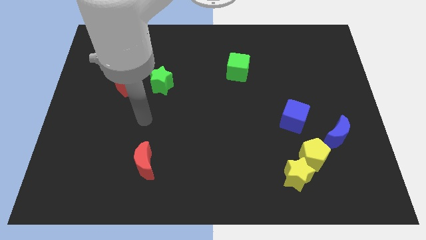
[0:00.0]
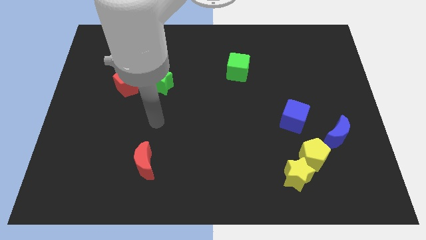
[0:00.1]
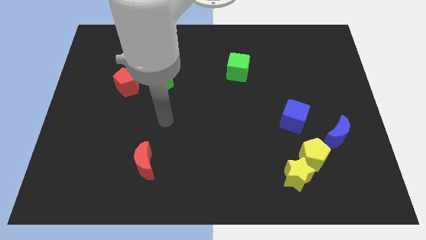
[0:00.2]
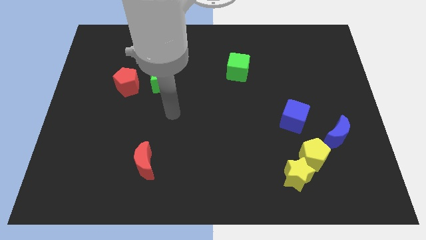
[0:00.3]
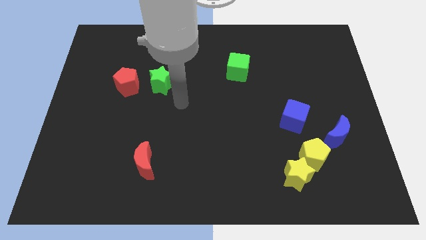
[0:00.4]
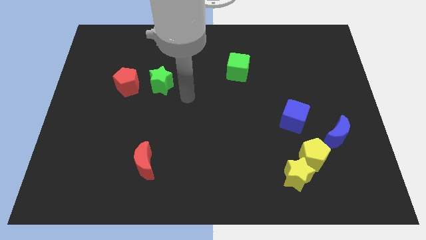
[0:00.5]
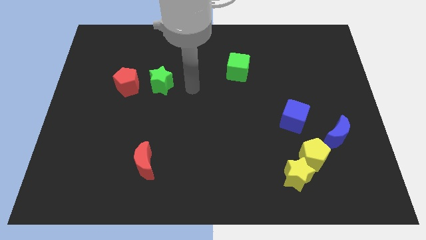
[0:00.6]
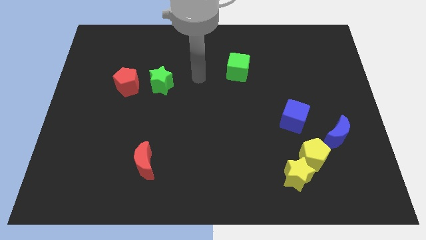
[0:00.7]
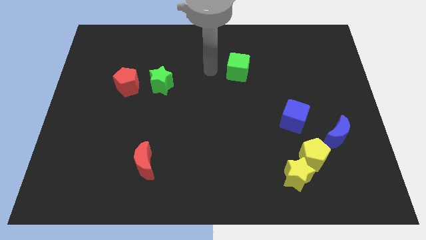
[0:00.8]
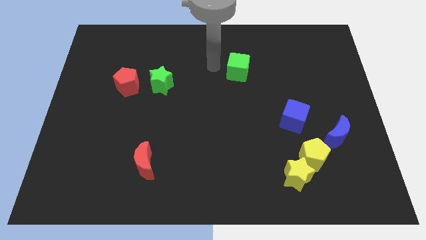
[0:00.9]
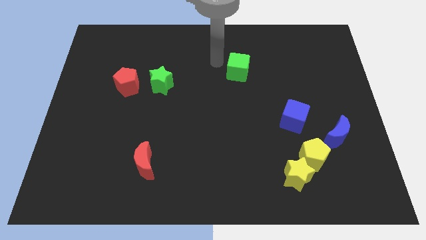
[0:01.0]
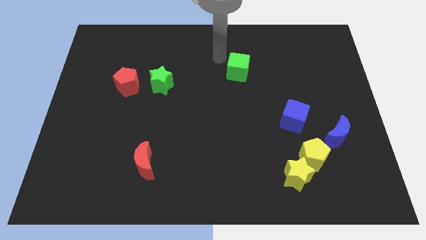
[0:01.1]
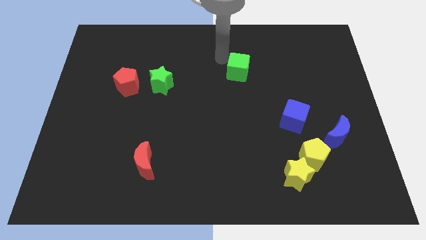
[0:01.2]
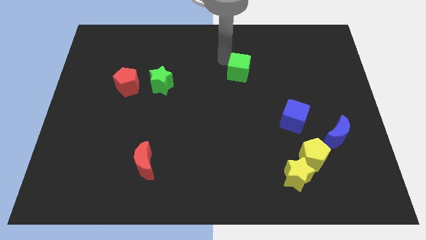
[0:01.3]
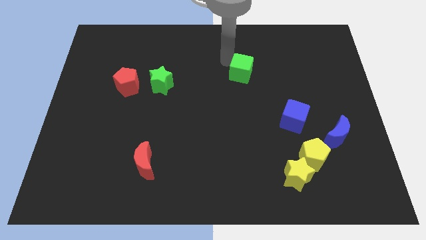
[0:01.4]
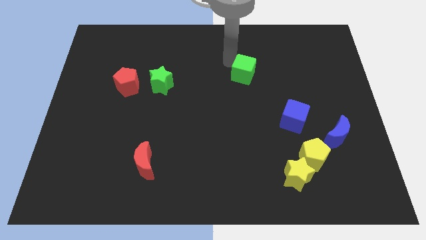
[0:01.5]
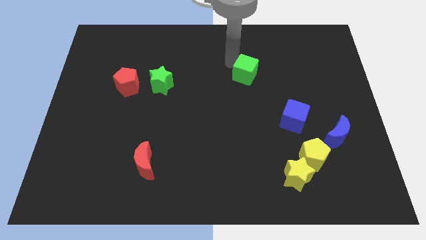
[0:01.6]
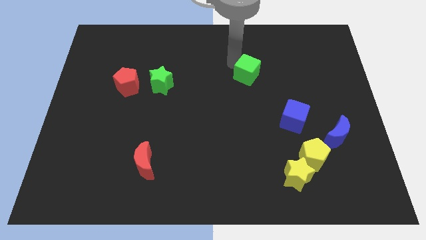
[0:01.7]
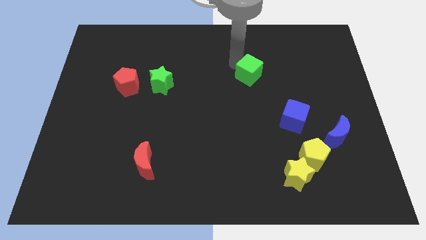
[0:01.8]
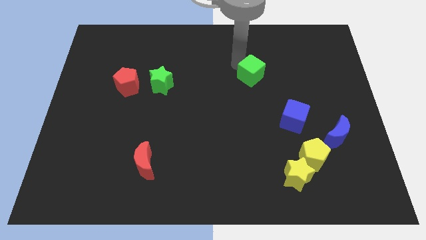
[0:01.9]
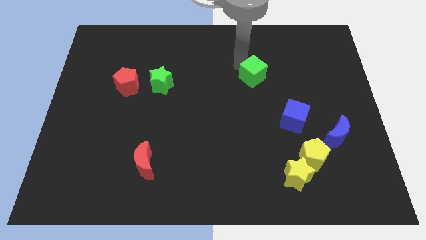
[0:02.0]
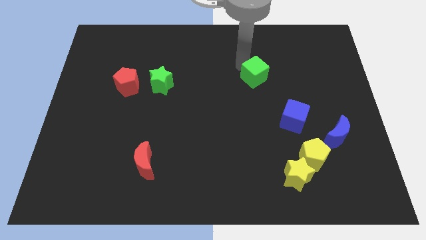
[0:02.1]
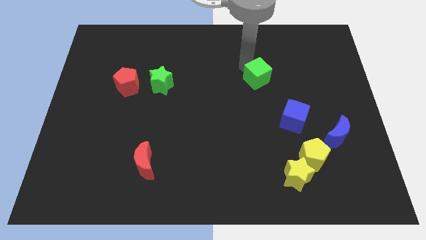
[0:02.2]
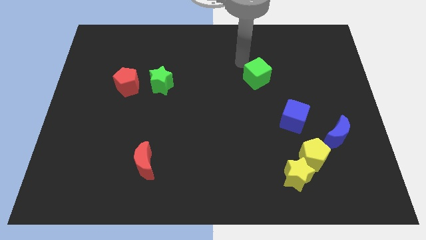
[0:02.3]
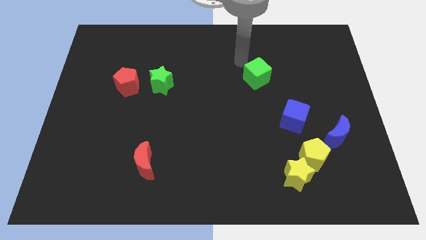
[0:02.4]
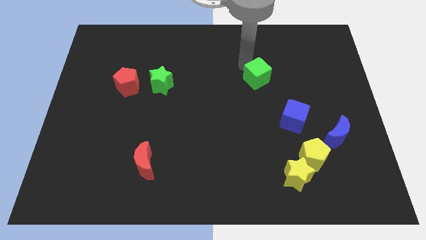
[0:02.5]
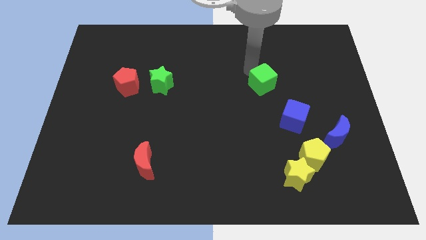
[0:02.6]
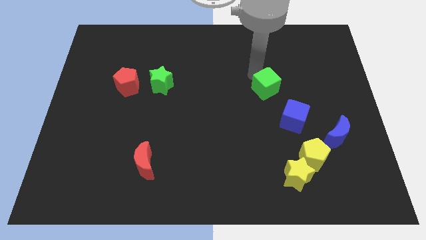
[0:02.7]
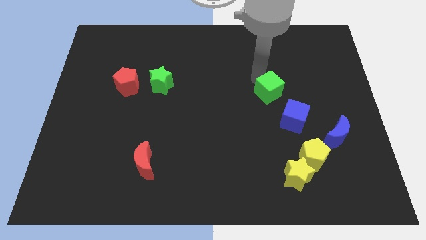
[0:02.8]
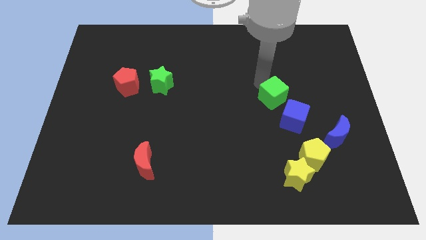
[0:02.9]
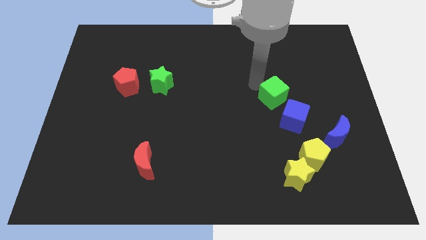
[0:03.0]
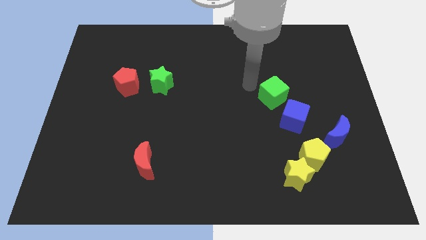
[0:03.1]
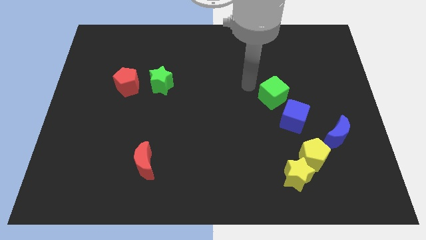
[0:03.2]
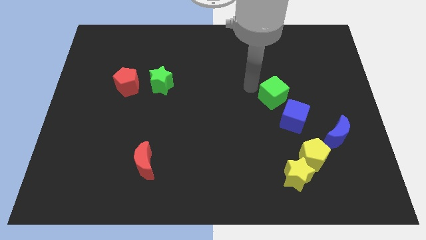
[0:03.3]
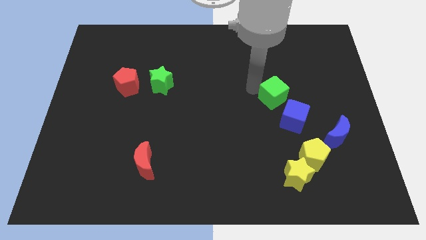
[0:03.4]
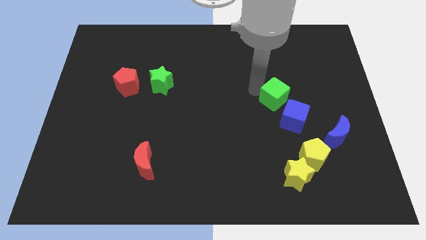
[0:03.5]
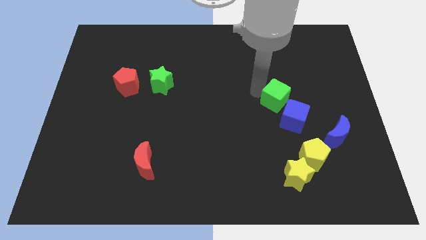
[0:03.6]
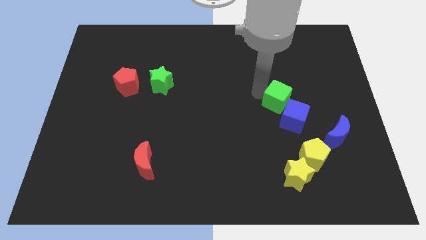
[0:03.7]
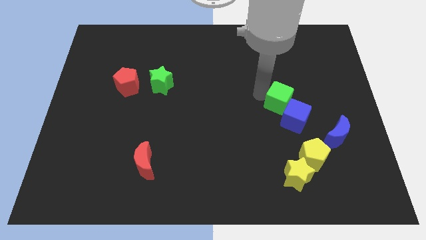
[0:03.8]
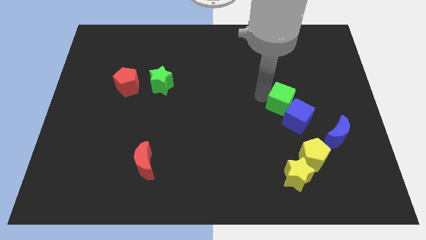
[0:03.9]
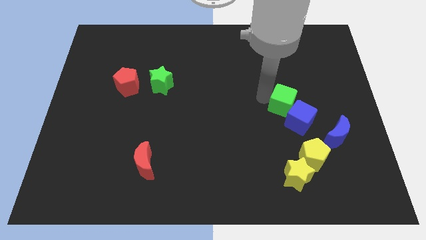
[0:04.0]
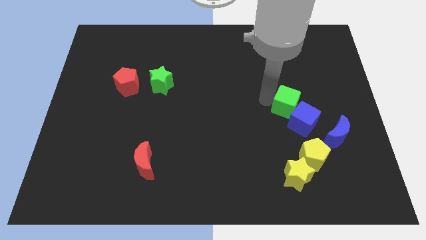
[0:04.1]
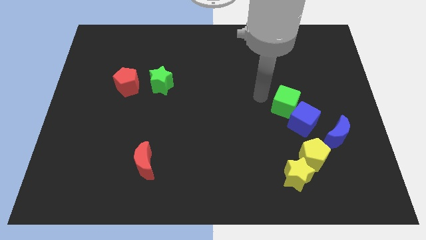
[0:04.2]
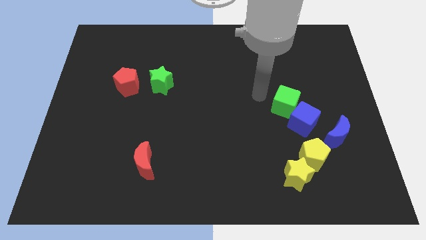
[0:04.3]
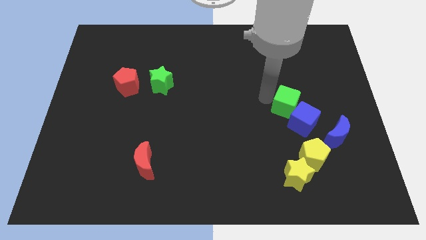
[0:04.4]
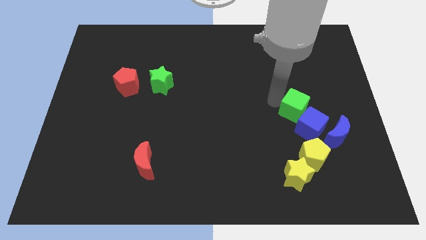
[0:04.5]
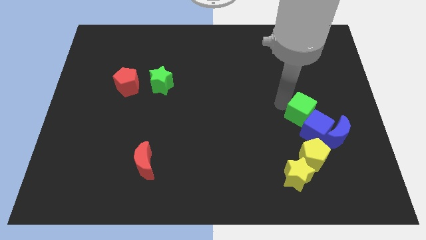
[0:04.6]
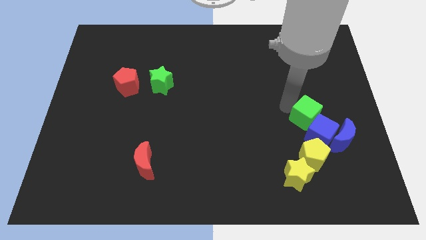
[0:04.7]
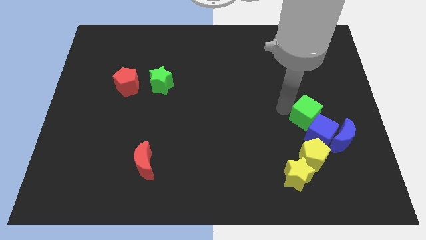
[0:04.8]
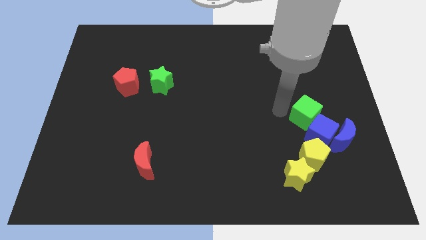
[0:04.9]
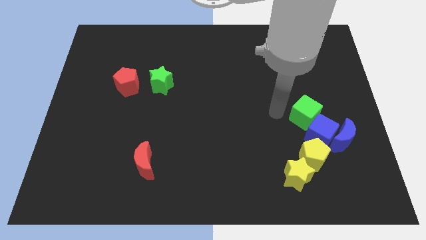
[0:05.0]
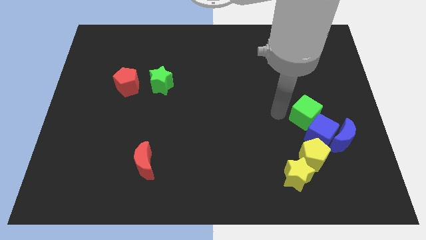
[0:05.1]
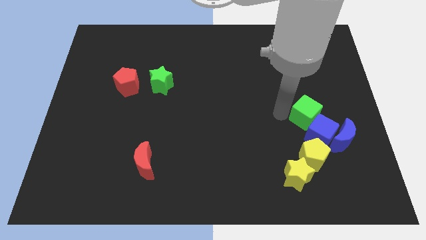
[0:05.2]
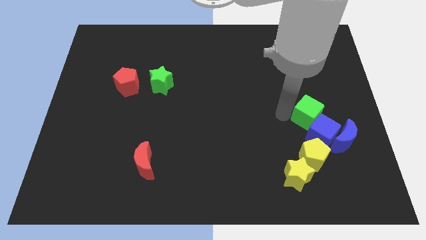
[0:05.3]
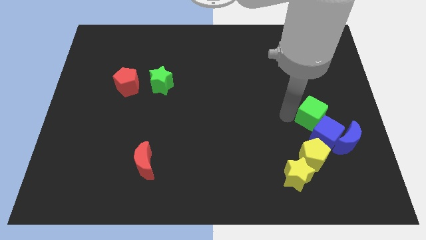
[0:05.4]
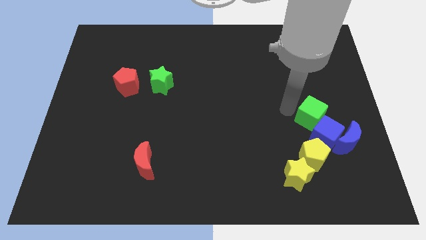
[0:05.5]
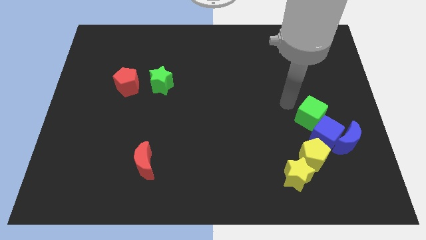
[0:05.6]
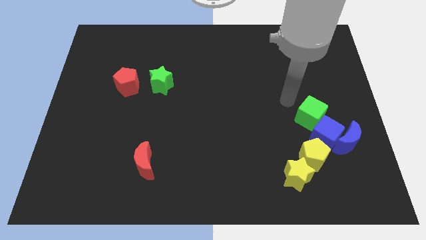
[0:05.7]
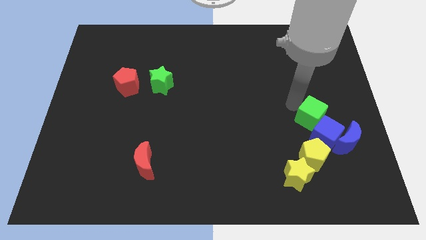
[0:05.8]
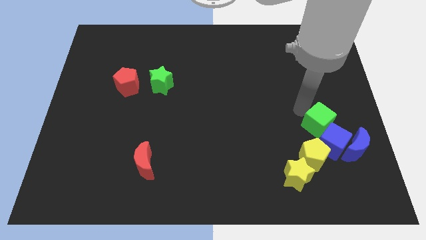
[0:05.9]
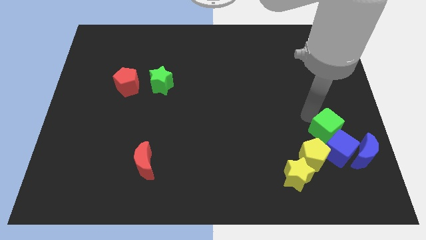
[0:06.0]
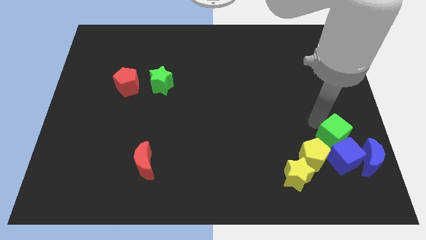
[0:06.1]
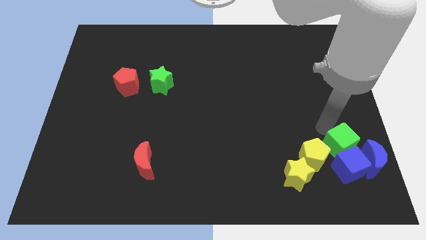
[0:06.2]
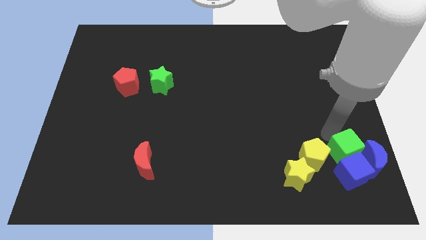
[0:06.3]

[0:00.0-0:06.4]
put the green cube close to the blue moon

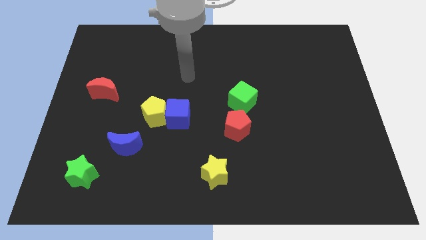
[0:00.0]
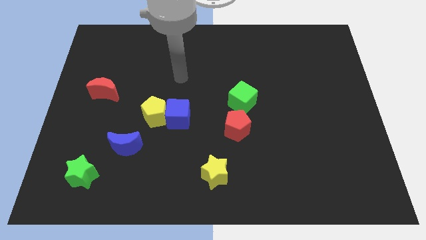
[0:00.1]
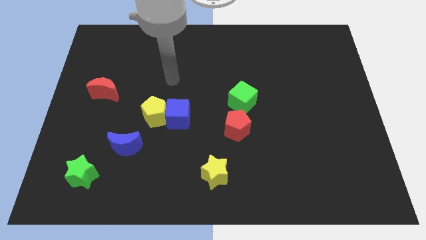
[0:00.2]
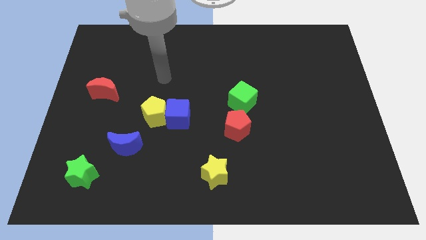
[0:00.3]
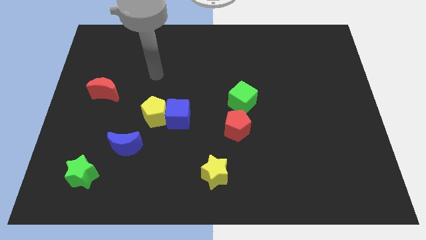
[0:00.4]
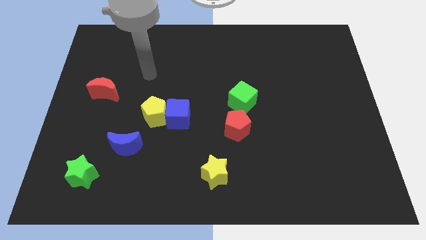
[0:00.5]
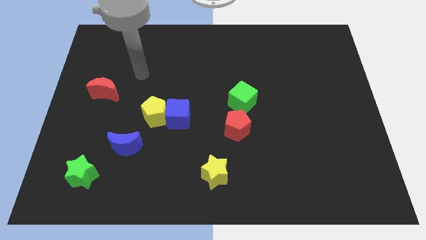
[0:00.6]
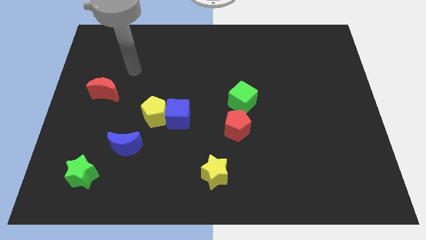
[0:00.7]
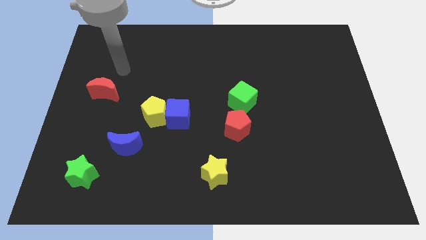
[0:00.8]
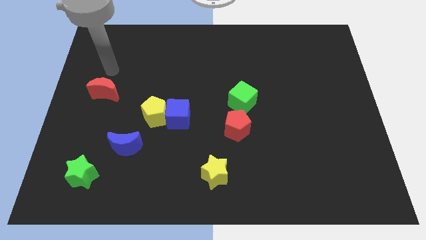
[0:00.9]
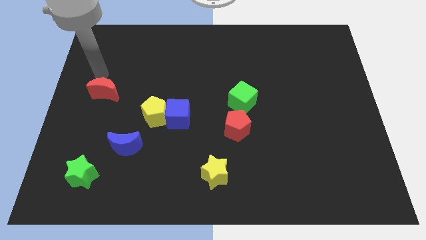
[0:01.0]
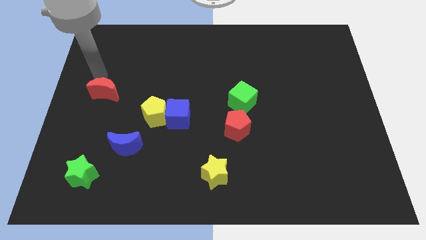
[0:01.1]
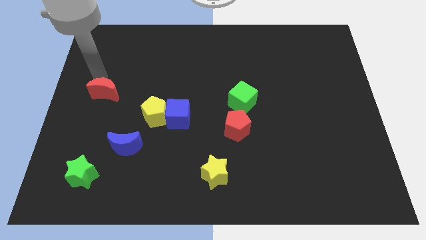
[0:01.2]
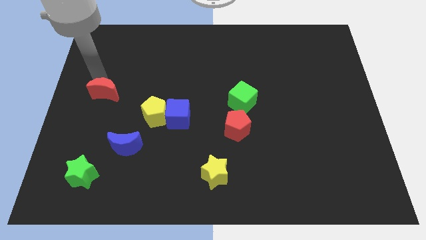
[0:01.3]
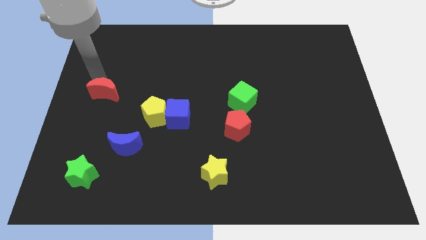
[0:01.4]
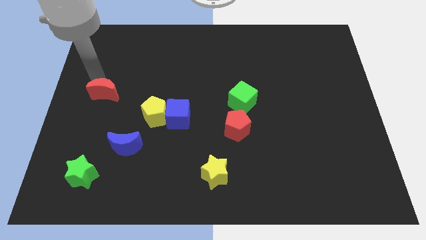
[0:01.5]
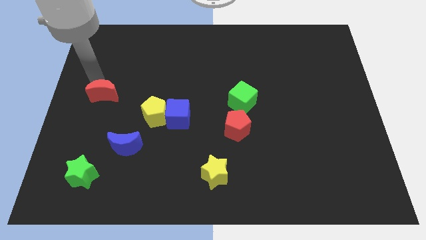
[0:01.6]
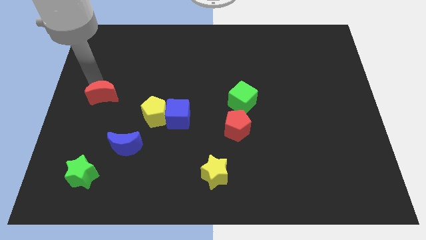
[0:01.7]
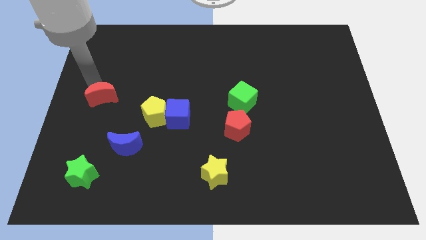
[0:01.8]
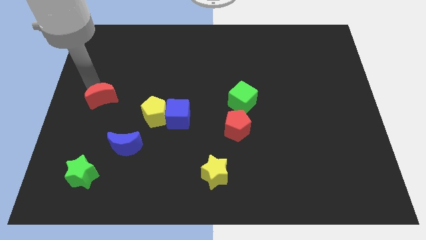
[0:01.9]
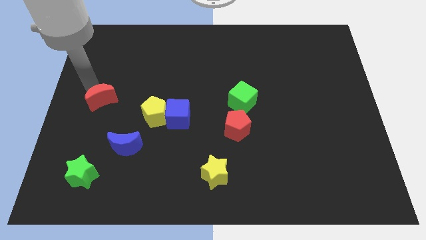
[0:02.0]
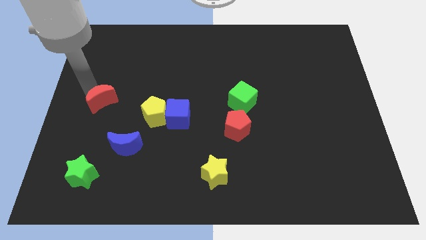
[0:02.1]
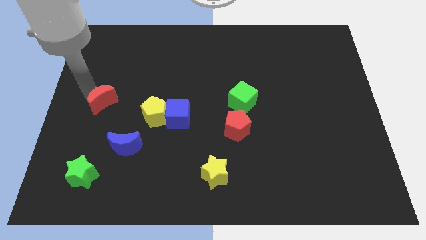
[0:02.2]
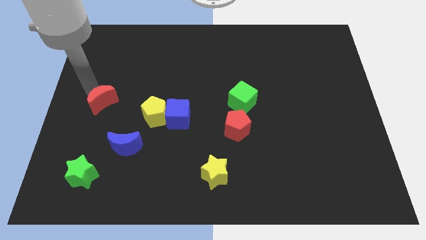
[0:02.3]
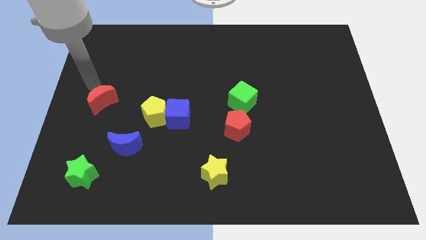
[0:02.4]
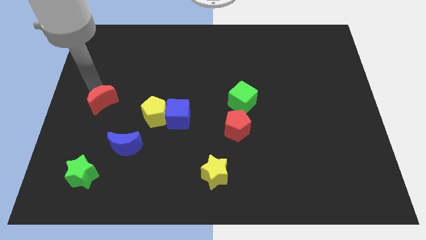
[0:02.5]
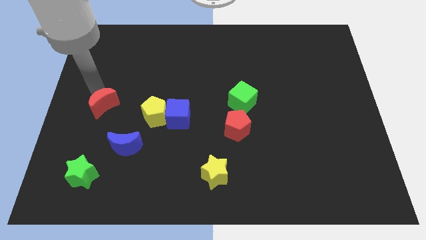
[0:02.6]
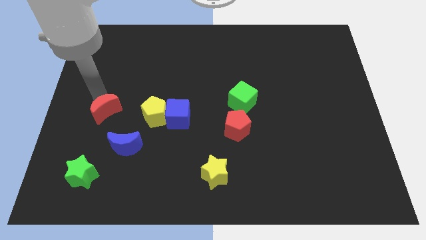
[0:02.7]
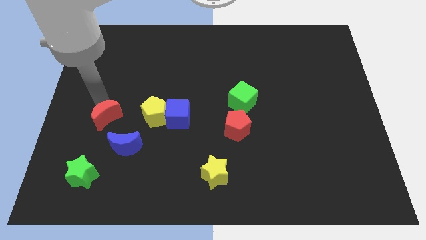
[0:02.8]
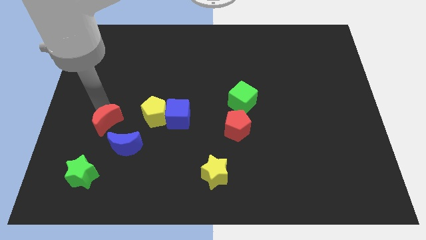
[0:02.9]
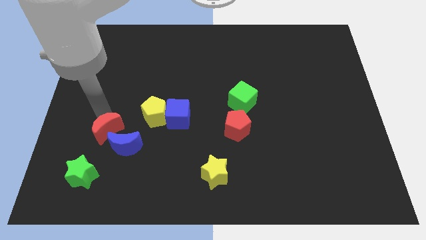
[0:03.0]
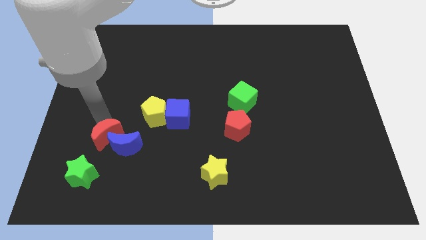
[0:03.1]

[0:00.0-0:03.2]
push the red moon next to the blue moon
